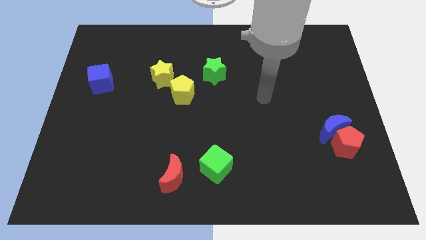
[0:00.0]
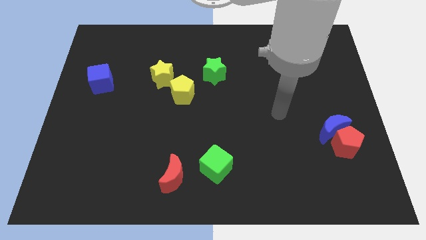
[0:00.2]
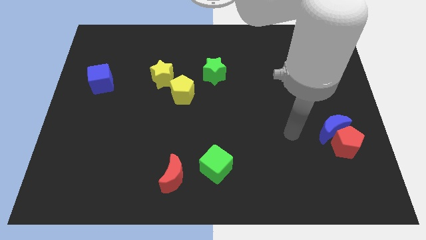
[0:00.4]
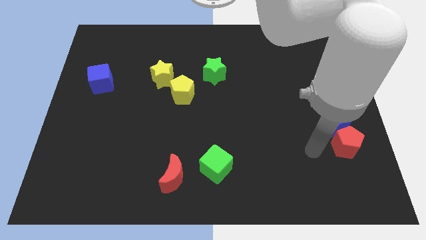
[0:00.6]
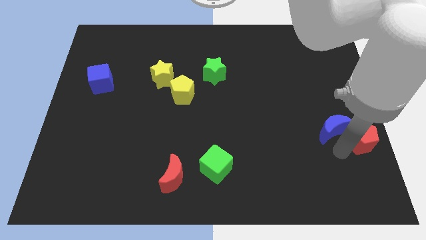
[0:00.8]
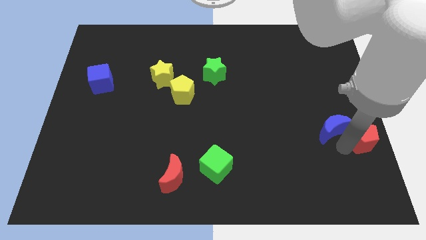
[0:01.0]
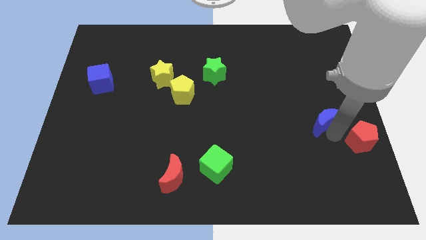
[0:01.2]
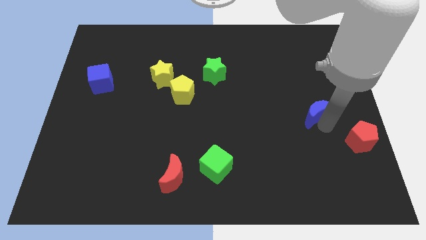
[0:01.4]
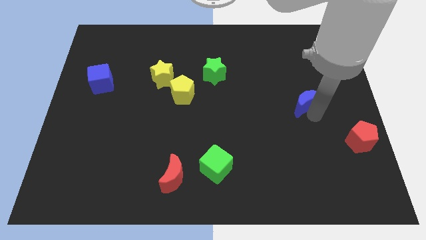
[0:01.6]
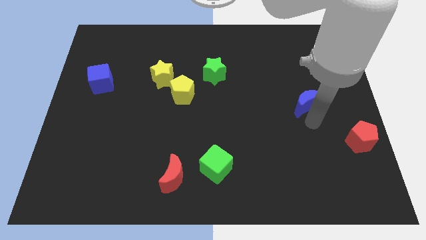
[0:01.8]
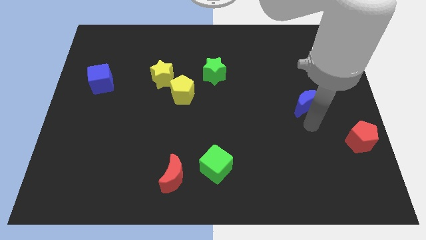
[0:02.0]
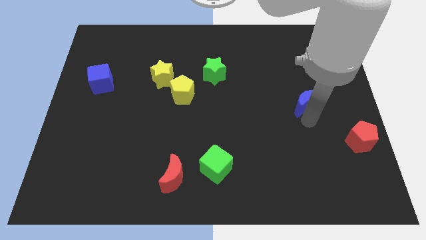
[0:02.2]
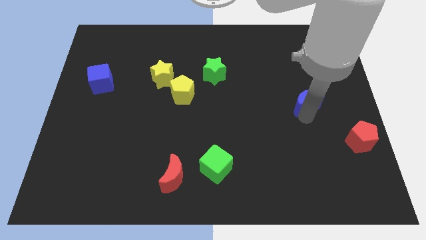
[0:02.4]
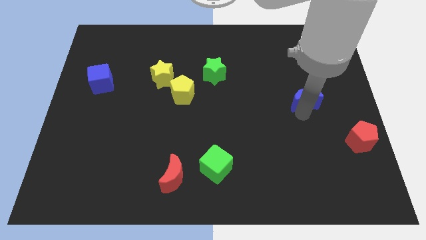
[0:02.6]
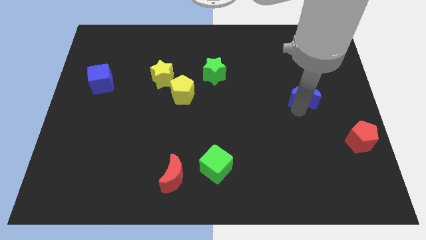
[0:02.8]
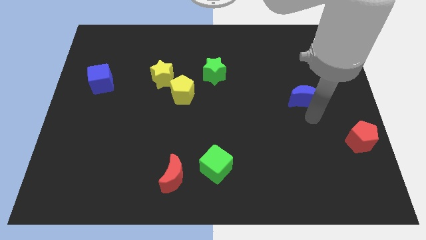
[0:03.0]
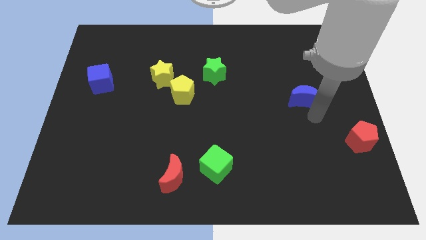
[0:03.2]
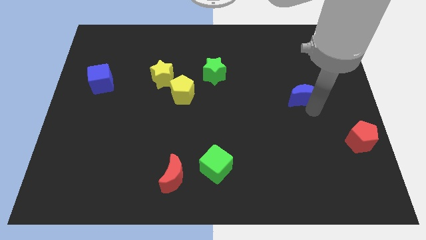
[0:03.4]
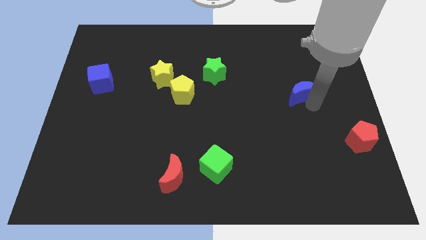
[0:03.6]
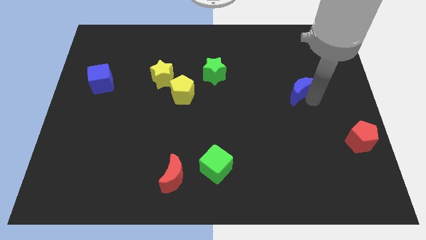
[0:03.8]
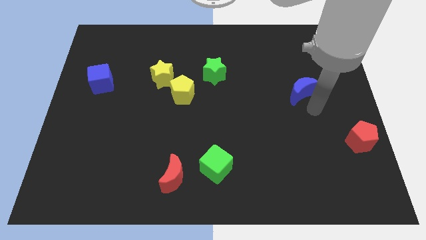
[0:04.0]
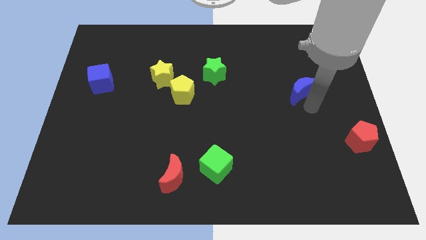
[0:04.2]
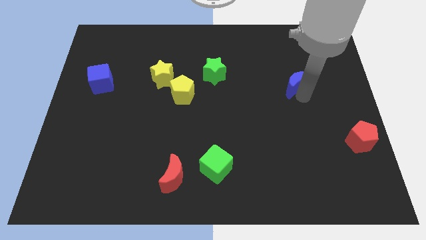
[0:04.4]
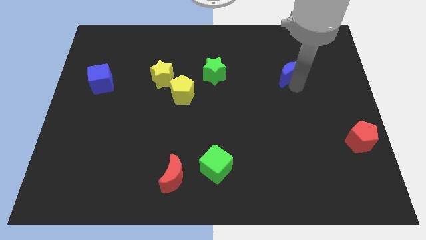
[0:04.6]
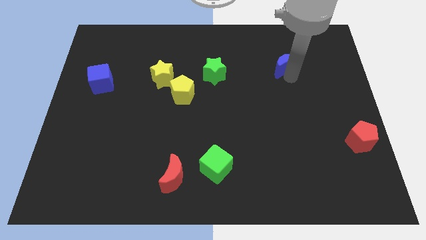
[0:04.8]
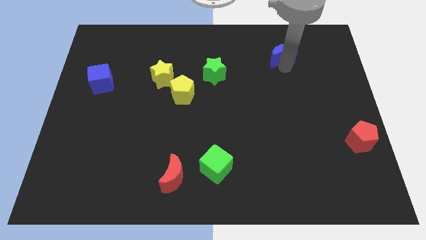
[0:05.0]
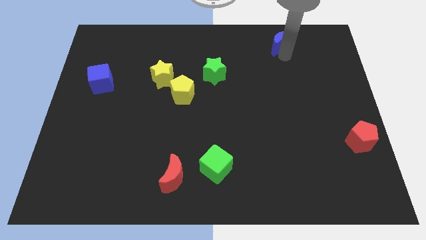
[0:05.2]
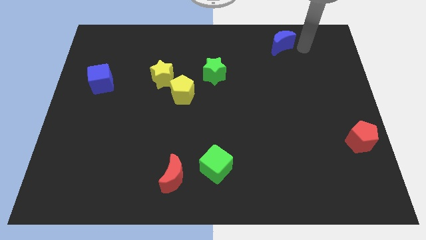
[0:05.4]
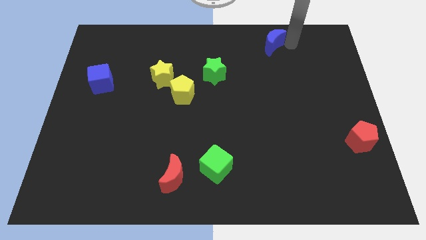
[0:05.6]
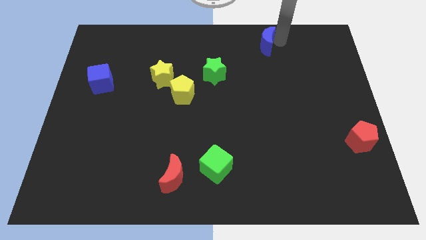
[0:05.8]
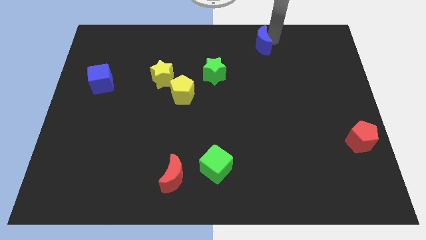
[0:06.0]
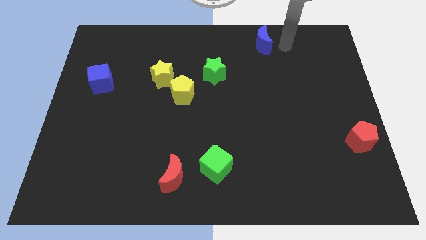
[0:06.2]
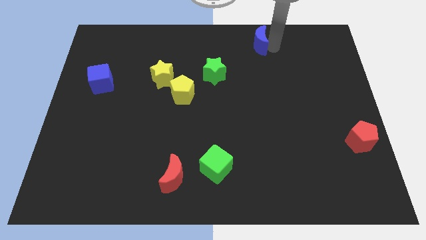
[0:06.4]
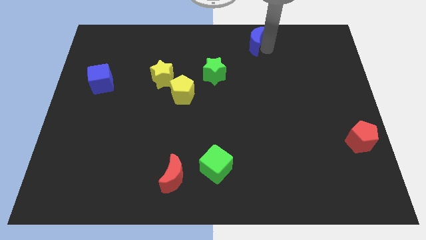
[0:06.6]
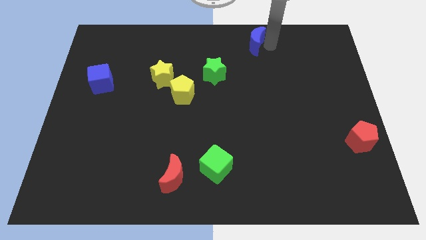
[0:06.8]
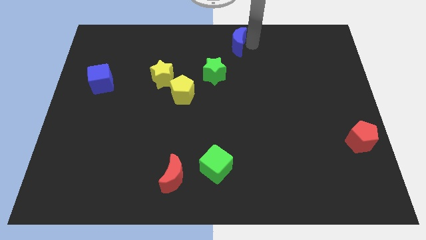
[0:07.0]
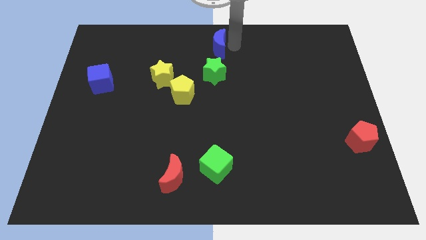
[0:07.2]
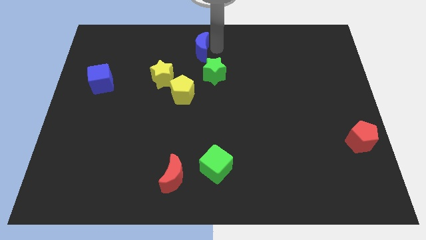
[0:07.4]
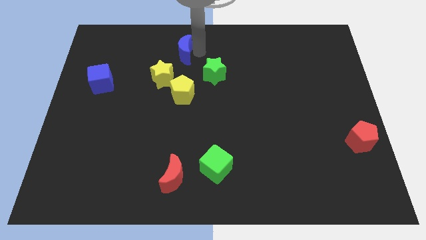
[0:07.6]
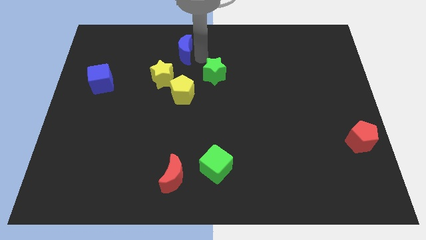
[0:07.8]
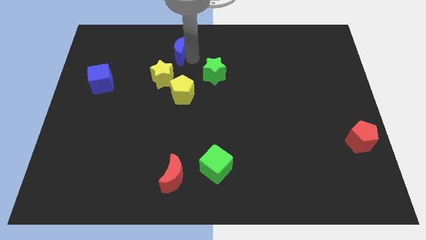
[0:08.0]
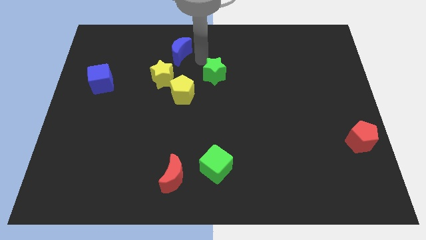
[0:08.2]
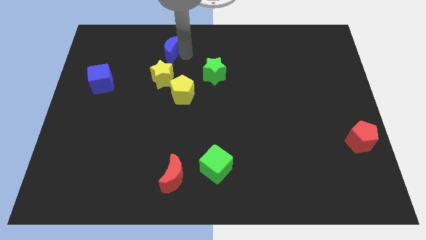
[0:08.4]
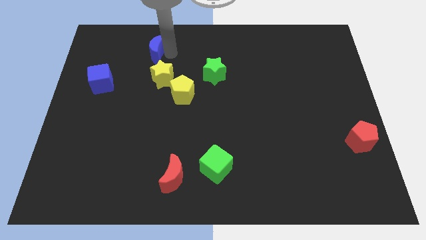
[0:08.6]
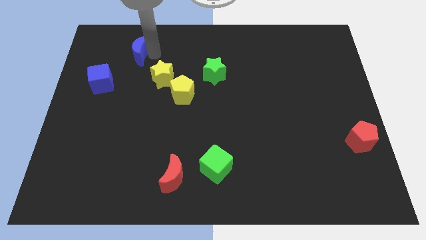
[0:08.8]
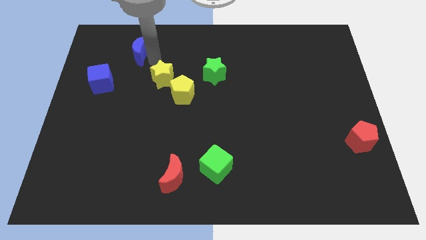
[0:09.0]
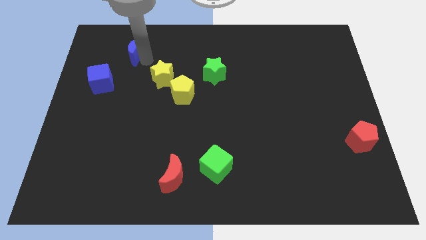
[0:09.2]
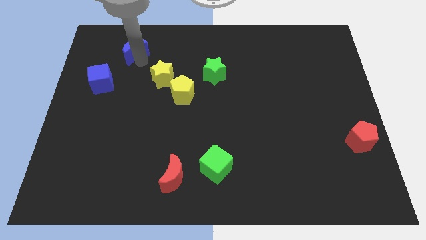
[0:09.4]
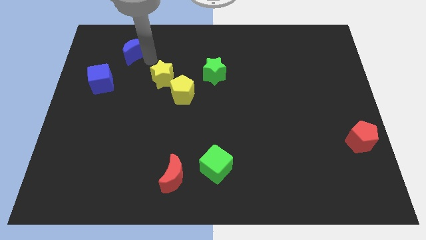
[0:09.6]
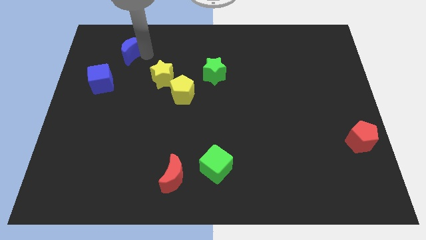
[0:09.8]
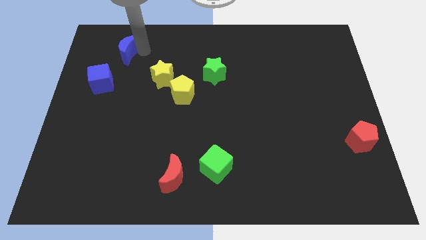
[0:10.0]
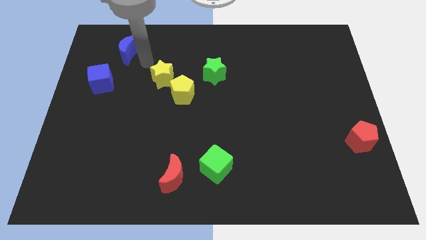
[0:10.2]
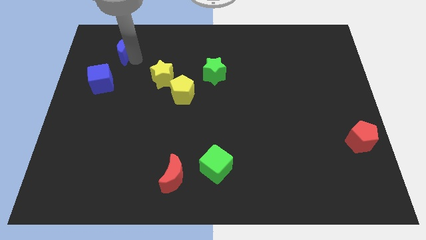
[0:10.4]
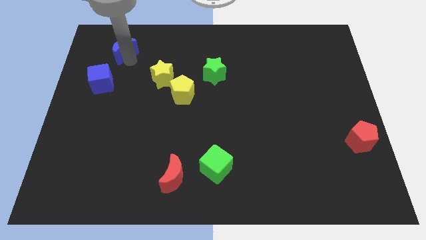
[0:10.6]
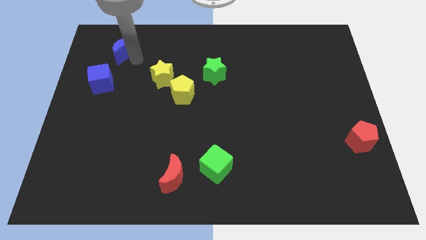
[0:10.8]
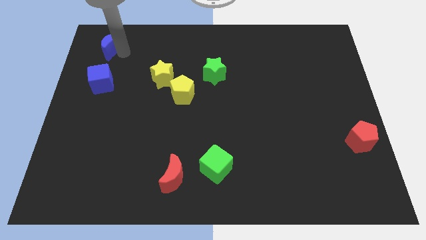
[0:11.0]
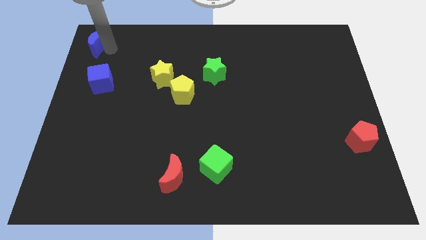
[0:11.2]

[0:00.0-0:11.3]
put the blue moon to the top left
